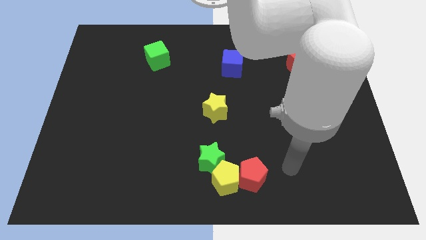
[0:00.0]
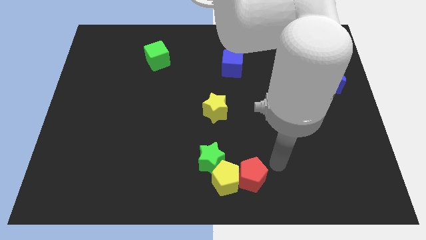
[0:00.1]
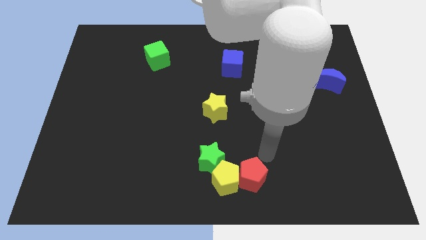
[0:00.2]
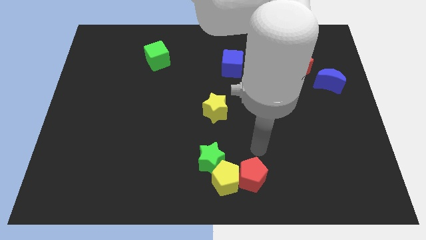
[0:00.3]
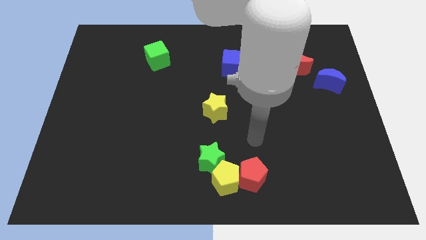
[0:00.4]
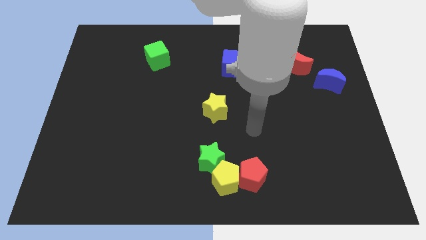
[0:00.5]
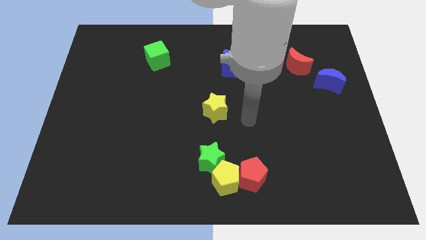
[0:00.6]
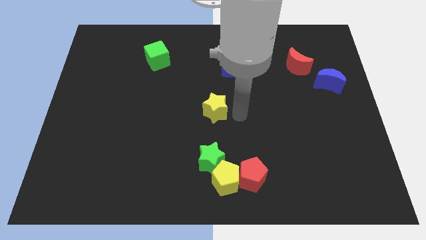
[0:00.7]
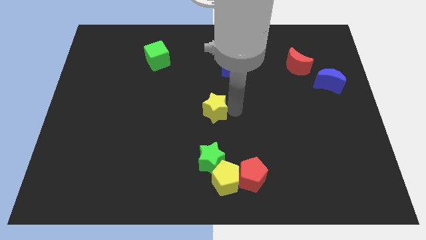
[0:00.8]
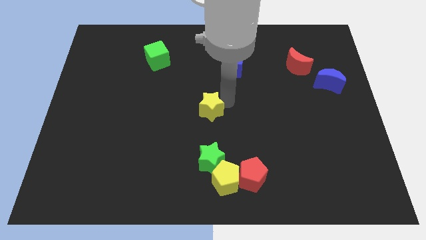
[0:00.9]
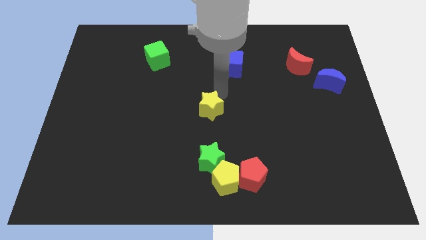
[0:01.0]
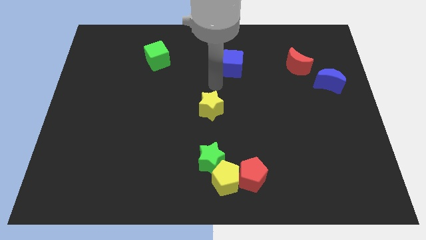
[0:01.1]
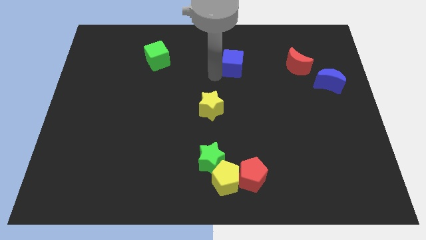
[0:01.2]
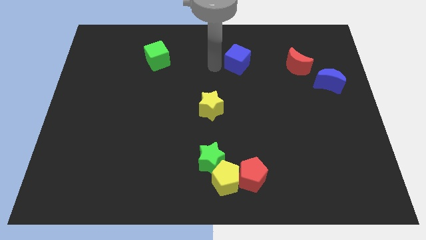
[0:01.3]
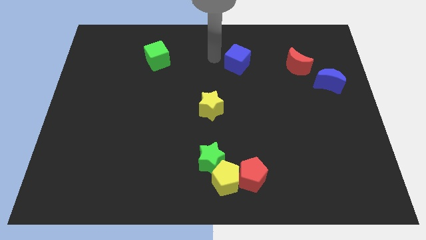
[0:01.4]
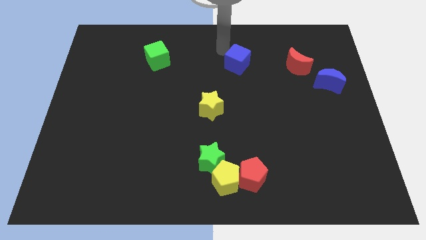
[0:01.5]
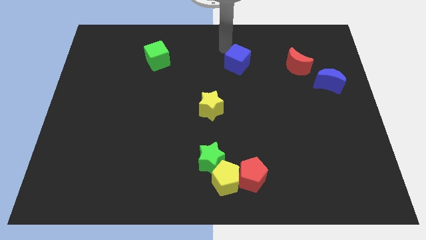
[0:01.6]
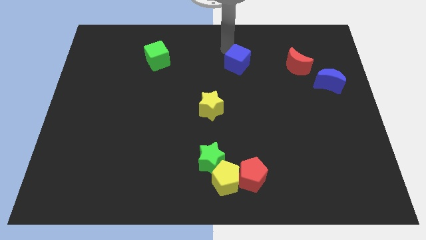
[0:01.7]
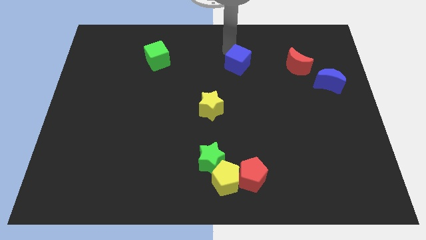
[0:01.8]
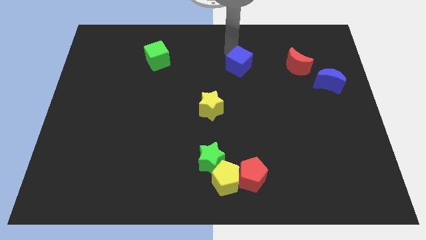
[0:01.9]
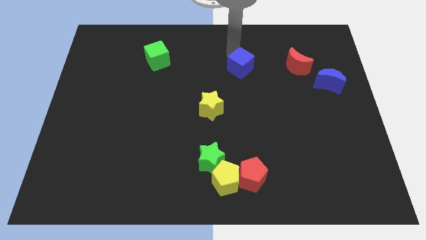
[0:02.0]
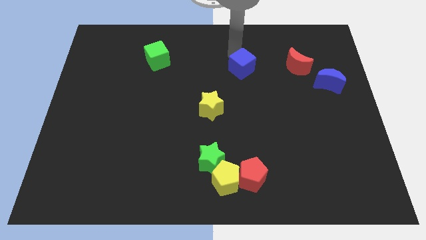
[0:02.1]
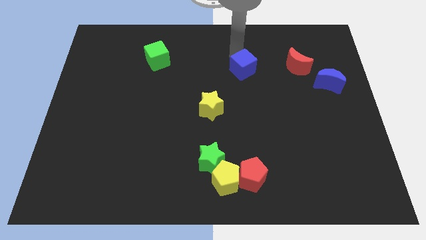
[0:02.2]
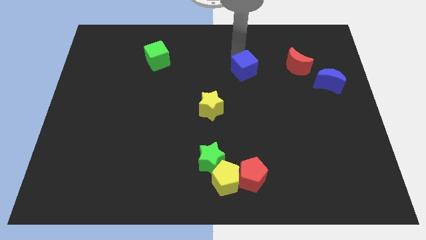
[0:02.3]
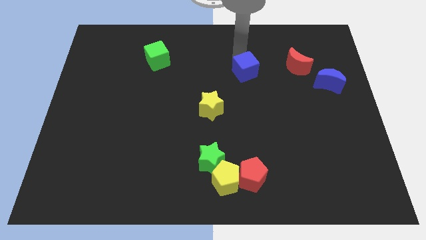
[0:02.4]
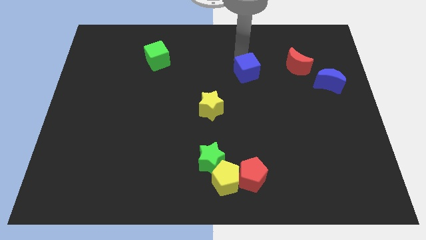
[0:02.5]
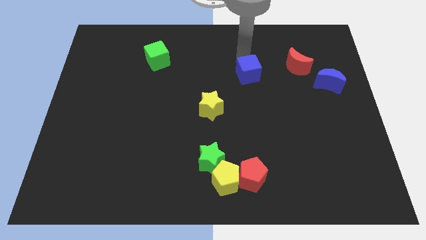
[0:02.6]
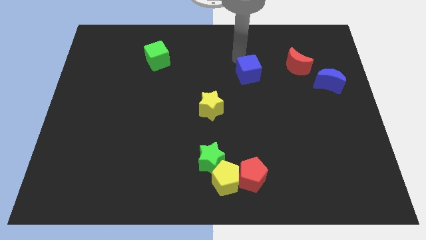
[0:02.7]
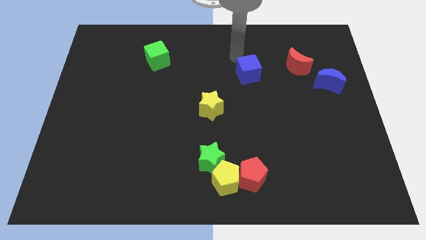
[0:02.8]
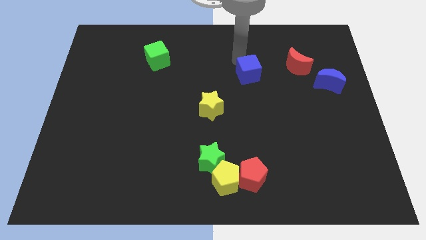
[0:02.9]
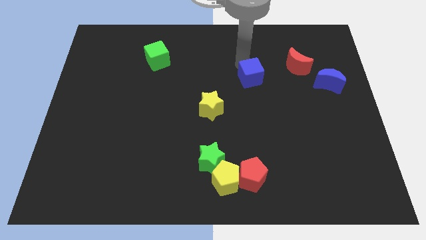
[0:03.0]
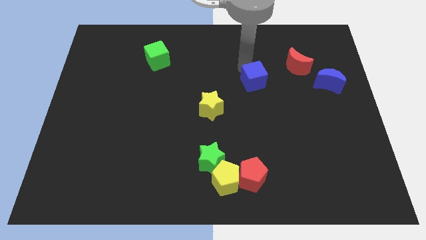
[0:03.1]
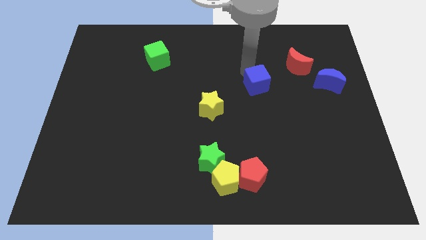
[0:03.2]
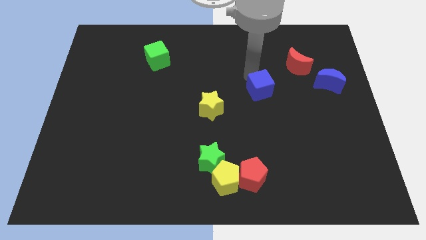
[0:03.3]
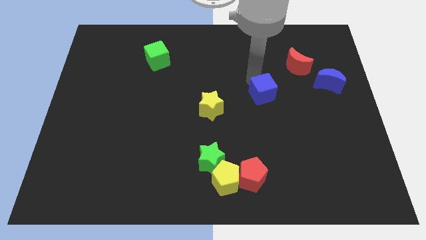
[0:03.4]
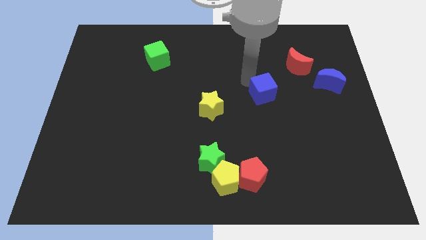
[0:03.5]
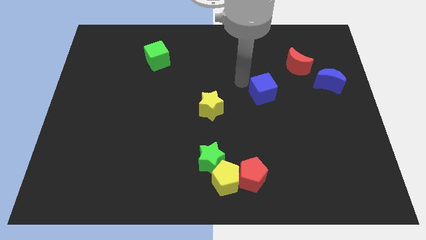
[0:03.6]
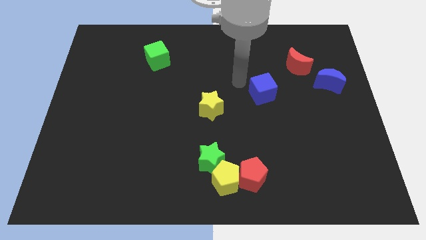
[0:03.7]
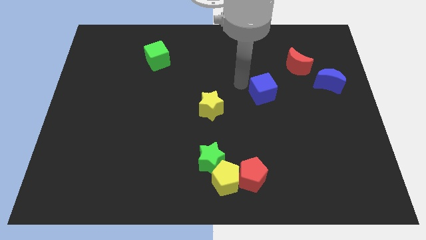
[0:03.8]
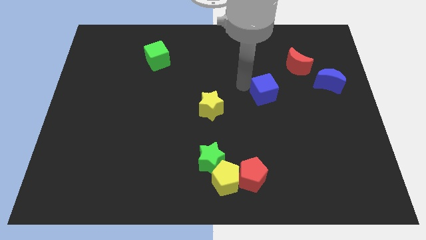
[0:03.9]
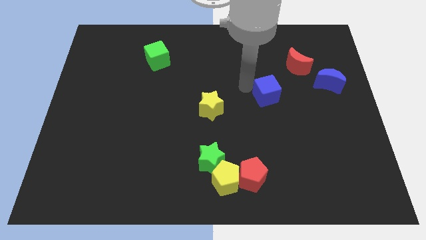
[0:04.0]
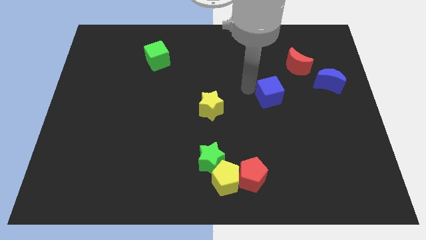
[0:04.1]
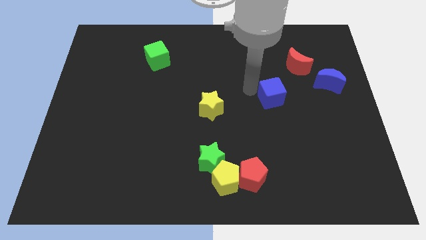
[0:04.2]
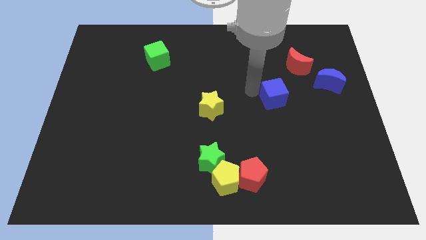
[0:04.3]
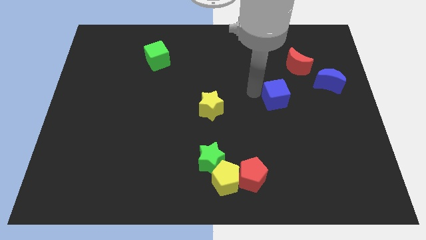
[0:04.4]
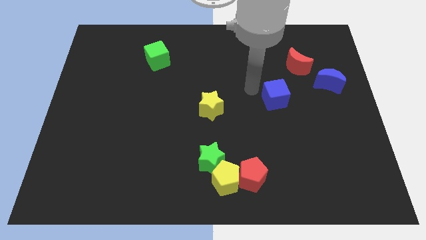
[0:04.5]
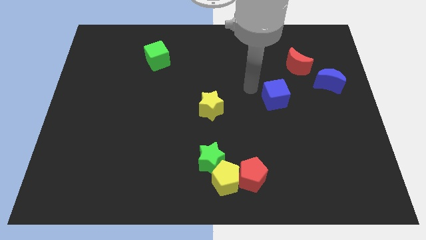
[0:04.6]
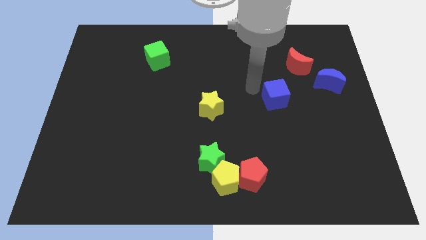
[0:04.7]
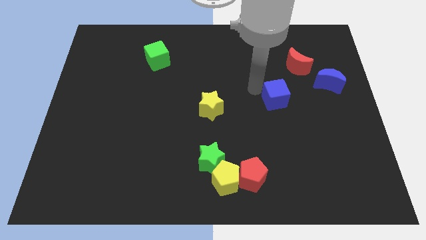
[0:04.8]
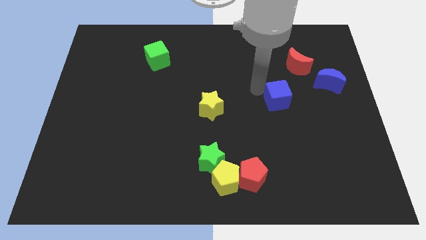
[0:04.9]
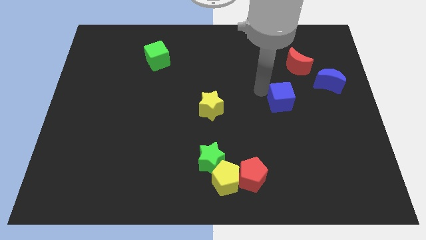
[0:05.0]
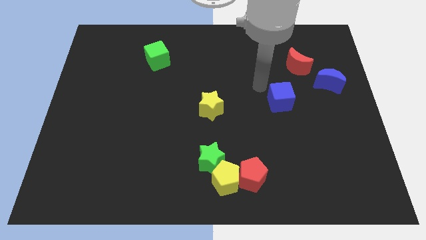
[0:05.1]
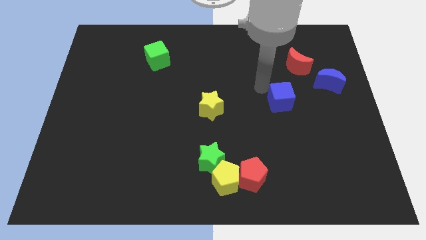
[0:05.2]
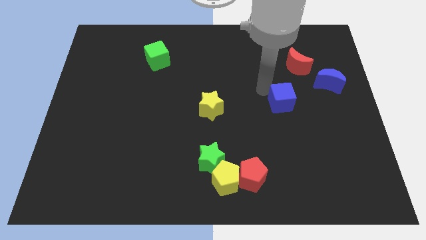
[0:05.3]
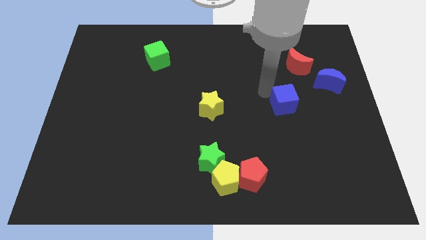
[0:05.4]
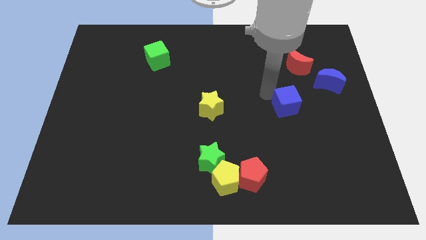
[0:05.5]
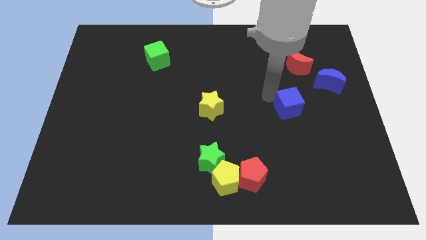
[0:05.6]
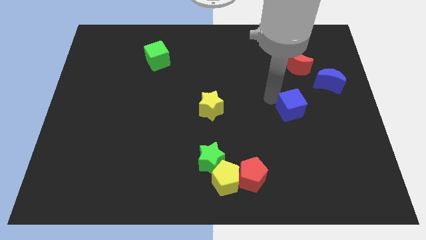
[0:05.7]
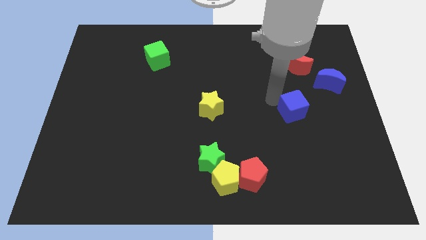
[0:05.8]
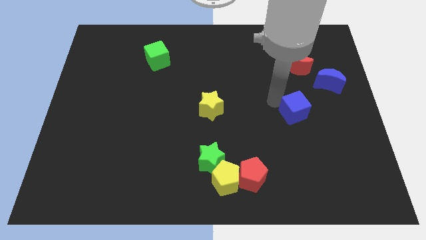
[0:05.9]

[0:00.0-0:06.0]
slide the blue cube downwards and to the right diagonally

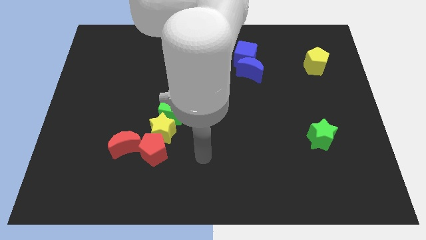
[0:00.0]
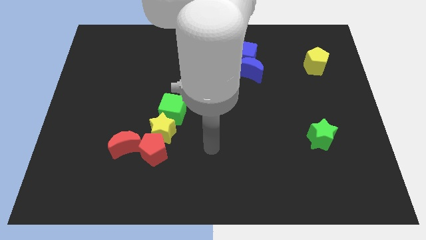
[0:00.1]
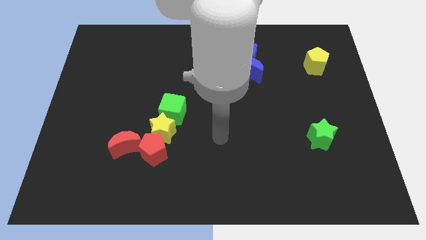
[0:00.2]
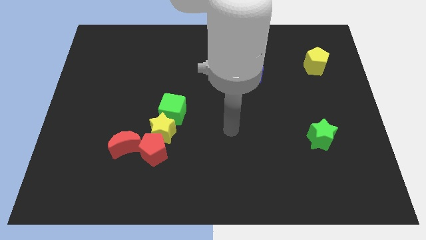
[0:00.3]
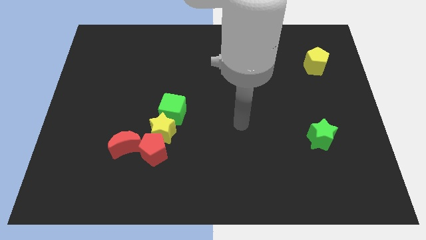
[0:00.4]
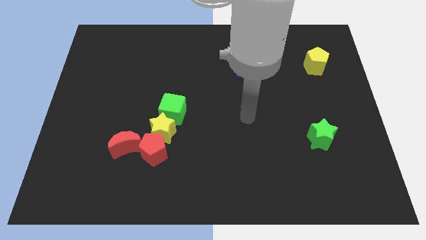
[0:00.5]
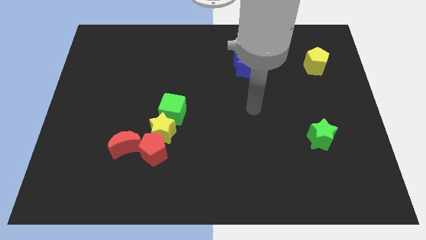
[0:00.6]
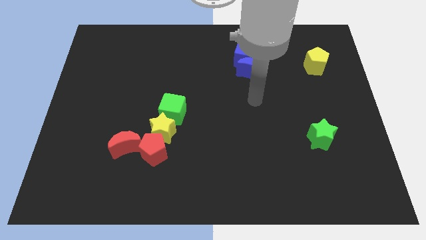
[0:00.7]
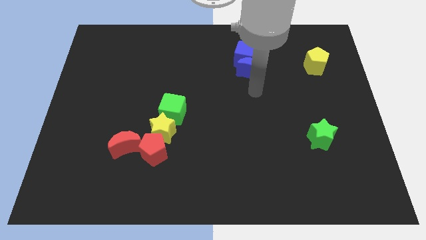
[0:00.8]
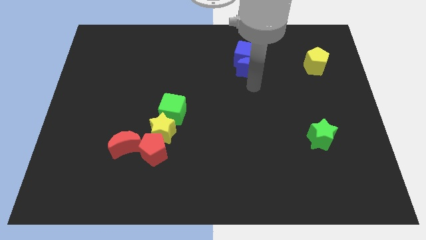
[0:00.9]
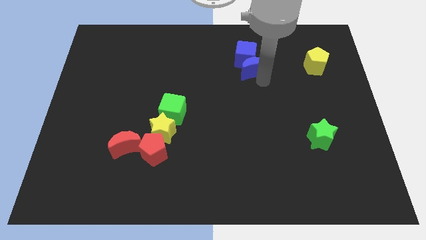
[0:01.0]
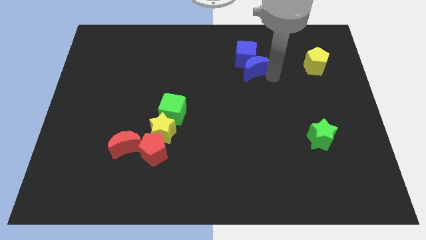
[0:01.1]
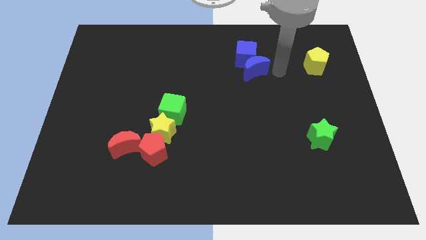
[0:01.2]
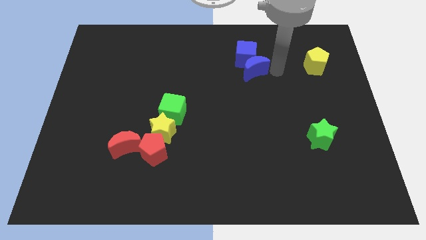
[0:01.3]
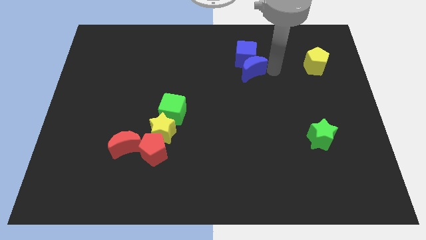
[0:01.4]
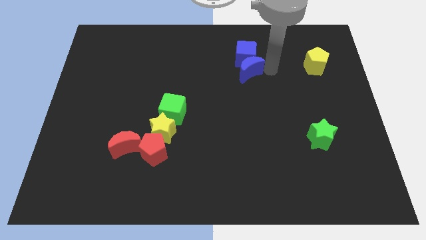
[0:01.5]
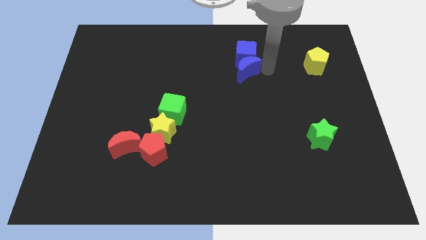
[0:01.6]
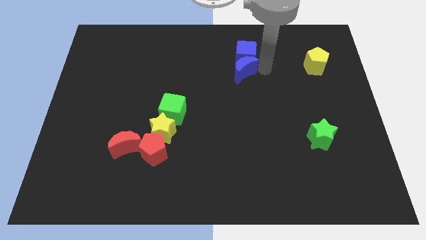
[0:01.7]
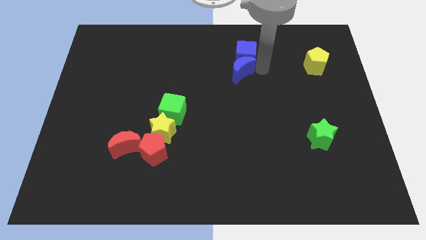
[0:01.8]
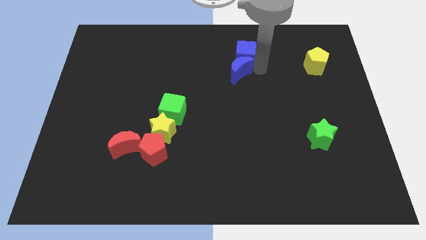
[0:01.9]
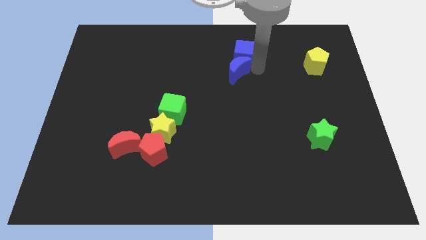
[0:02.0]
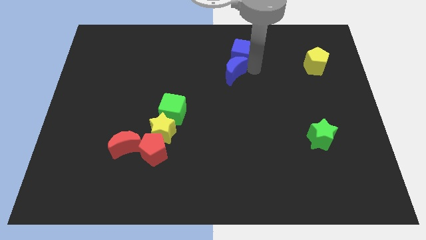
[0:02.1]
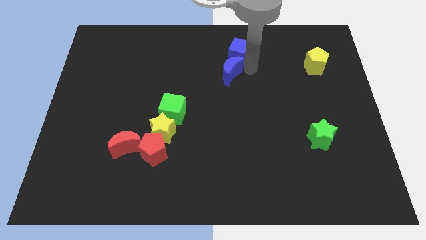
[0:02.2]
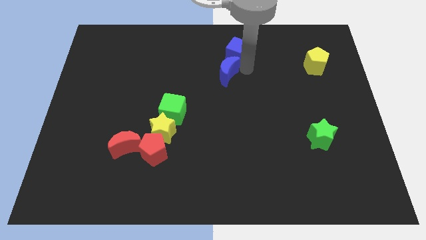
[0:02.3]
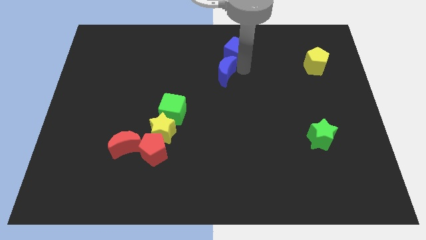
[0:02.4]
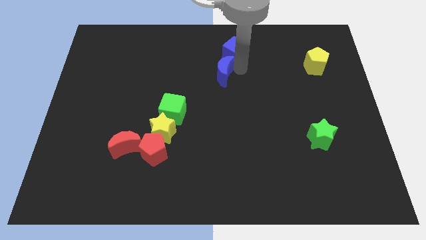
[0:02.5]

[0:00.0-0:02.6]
slide the blue moon left somewhat
